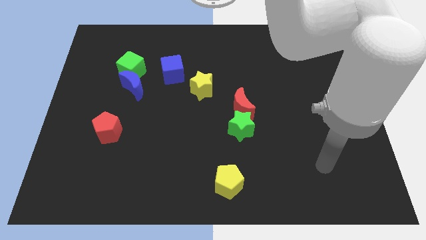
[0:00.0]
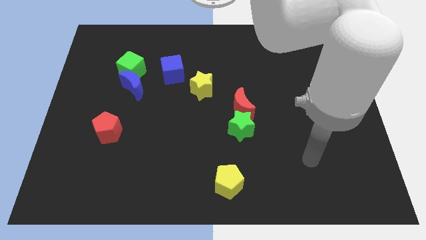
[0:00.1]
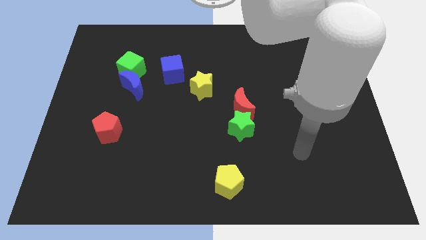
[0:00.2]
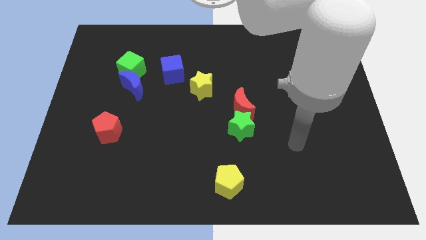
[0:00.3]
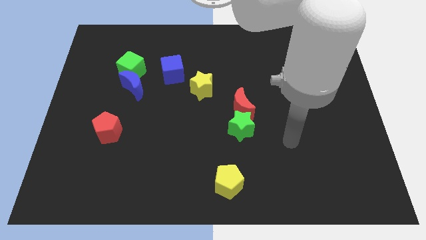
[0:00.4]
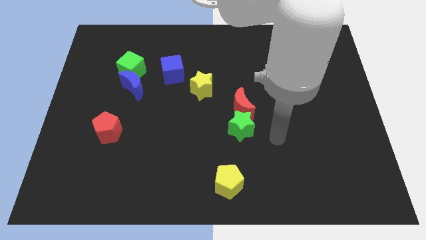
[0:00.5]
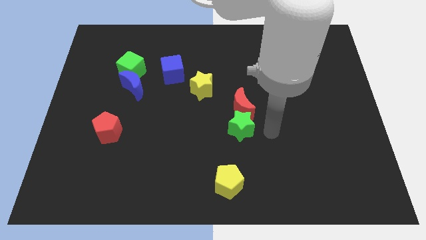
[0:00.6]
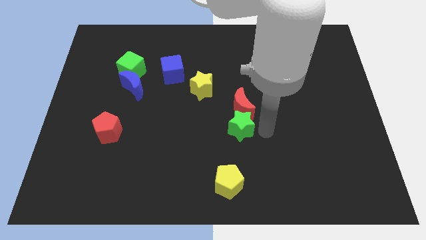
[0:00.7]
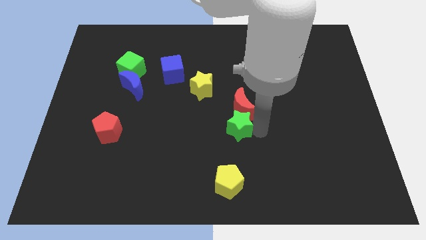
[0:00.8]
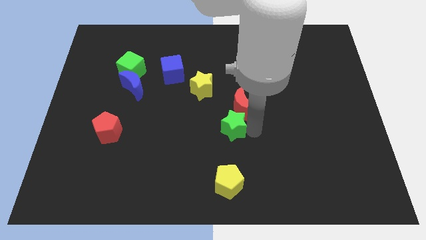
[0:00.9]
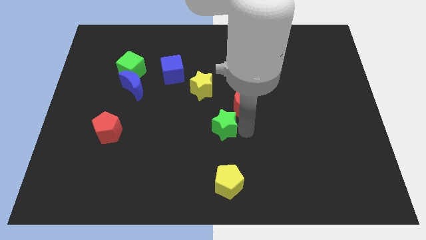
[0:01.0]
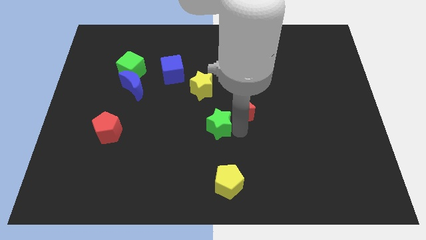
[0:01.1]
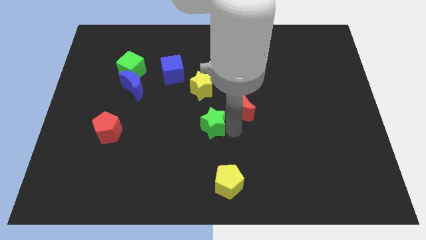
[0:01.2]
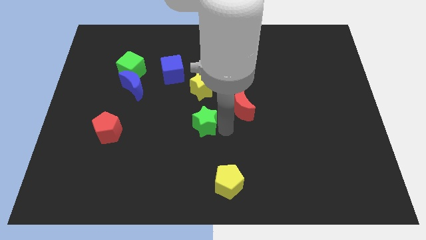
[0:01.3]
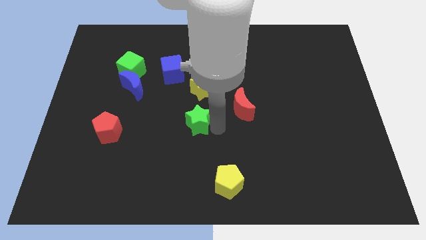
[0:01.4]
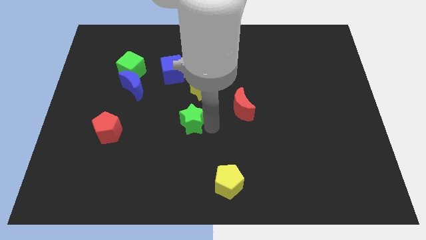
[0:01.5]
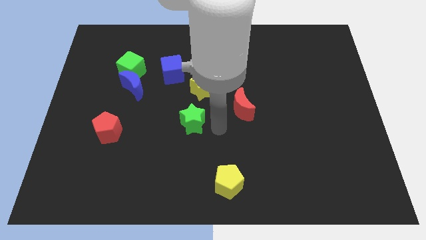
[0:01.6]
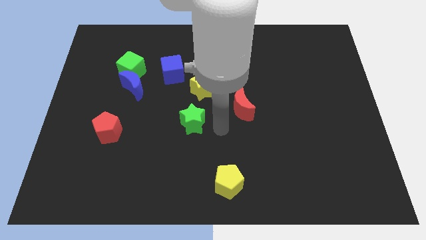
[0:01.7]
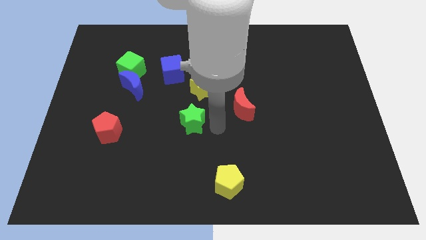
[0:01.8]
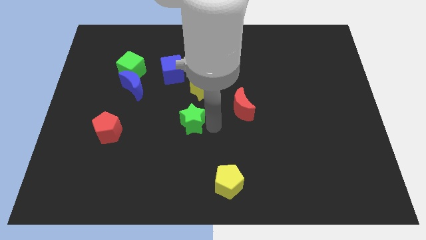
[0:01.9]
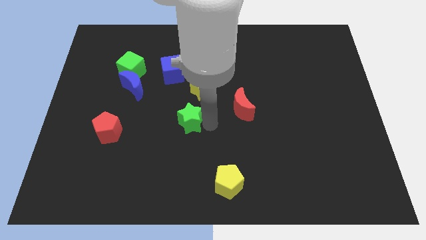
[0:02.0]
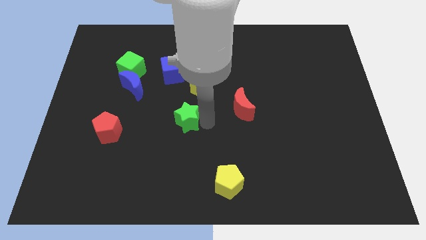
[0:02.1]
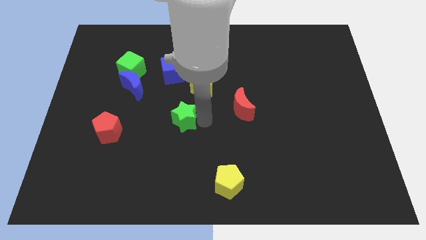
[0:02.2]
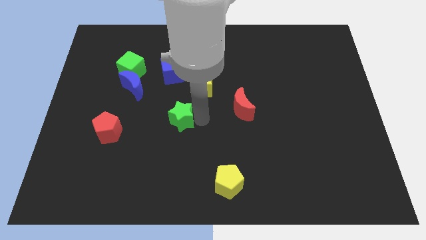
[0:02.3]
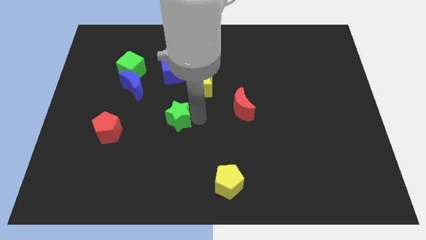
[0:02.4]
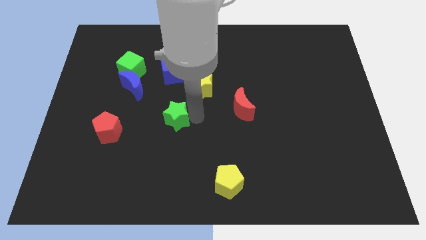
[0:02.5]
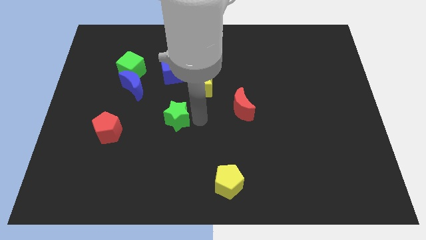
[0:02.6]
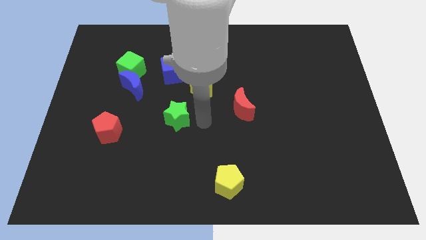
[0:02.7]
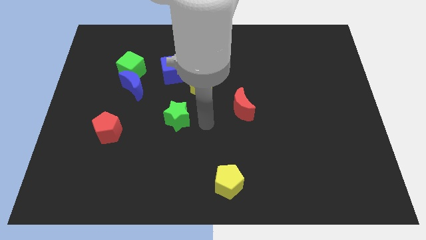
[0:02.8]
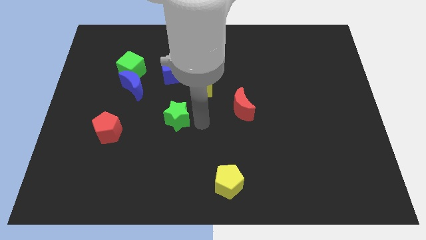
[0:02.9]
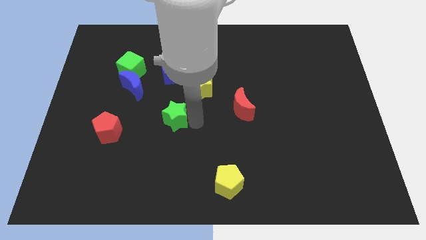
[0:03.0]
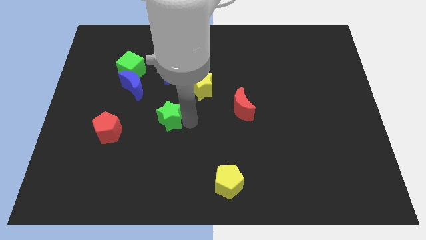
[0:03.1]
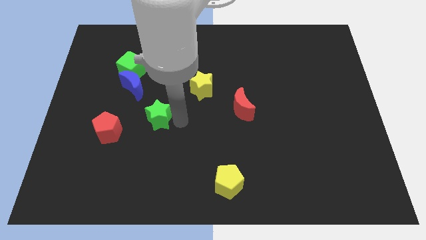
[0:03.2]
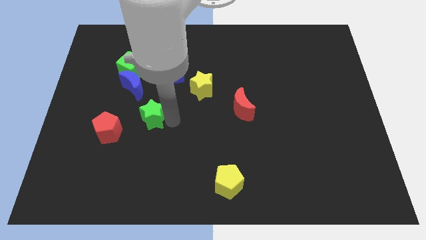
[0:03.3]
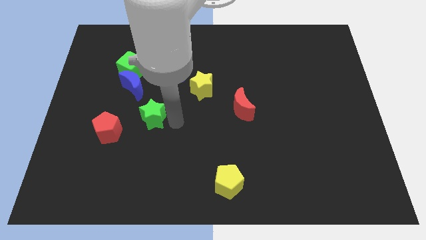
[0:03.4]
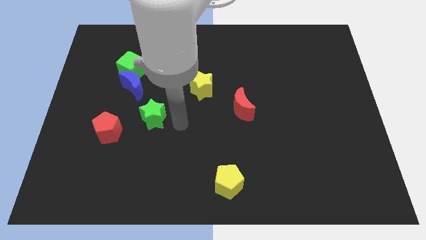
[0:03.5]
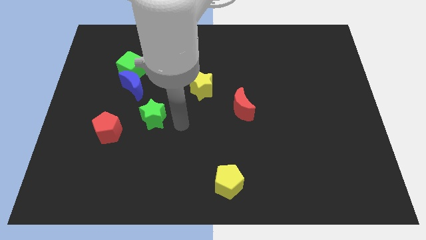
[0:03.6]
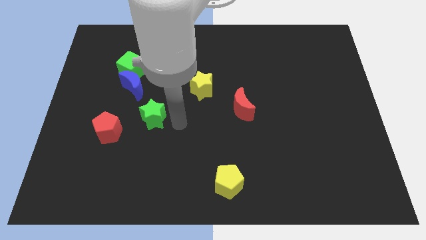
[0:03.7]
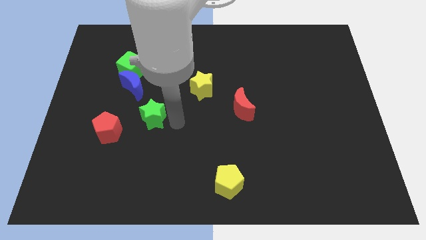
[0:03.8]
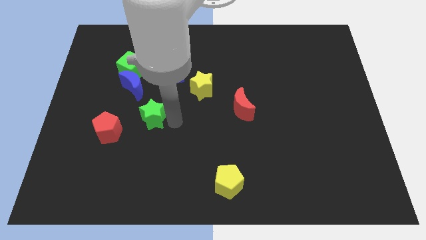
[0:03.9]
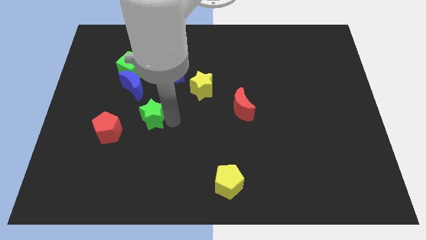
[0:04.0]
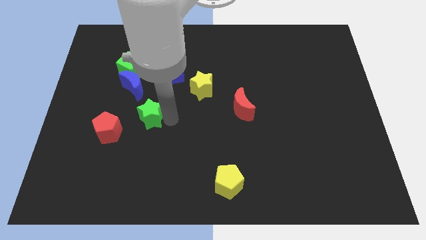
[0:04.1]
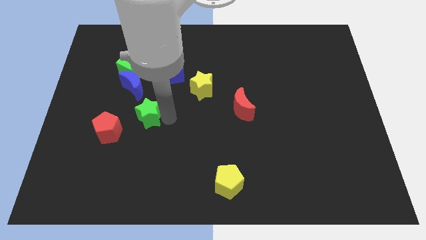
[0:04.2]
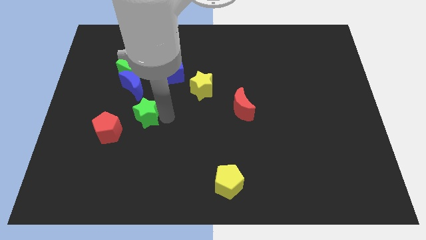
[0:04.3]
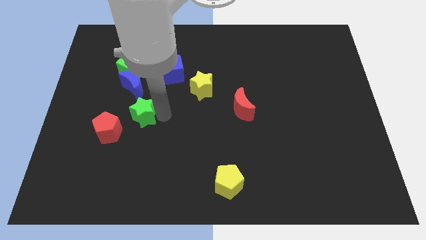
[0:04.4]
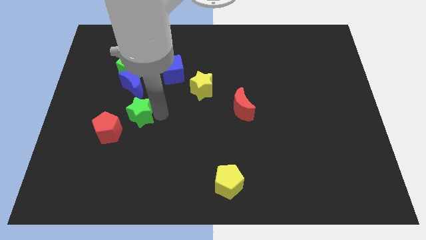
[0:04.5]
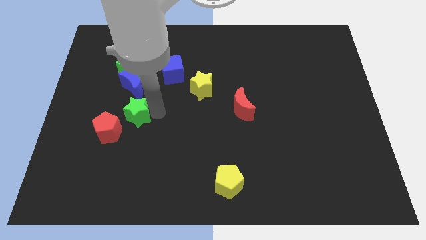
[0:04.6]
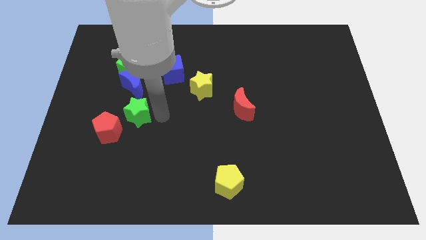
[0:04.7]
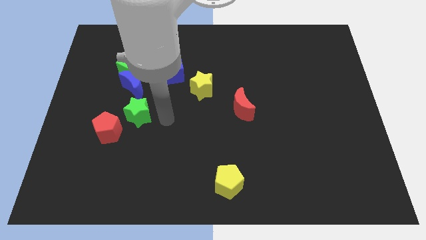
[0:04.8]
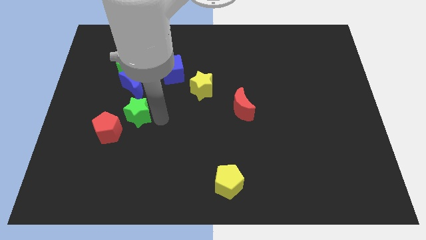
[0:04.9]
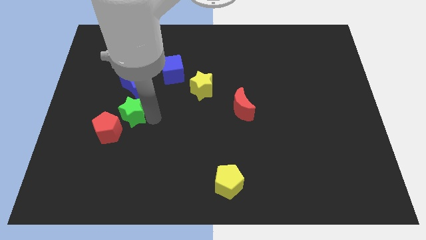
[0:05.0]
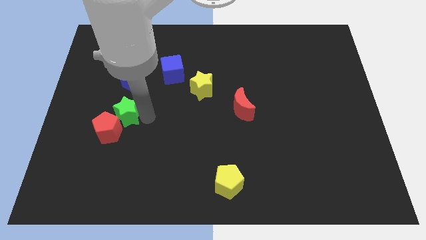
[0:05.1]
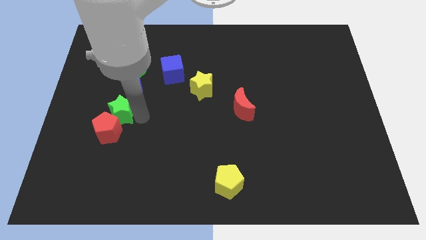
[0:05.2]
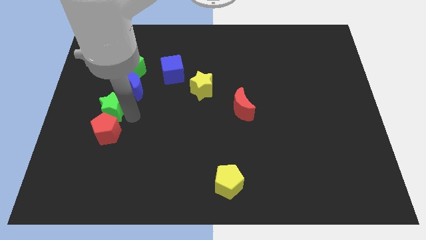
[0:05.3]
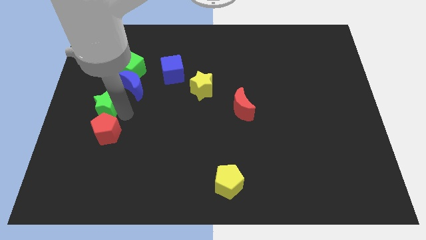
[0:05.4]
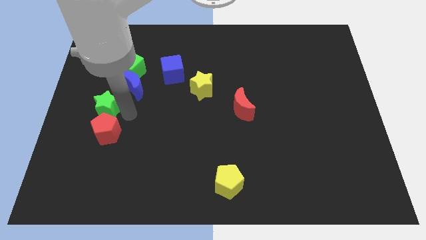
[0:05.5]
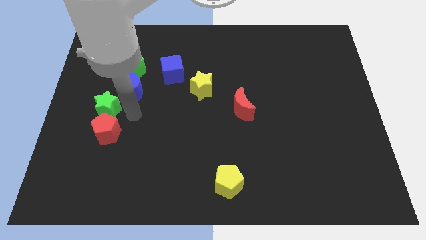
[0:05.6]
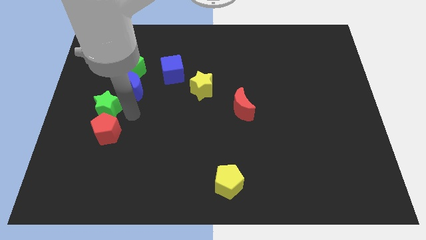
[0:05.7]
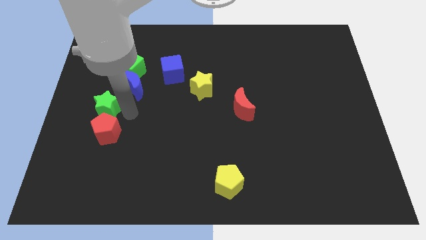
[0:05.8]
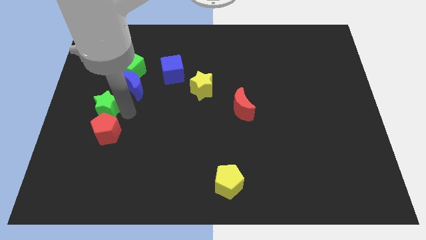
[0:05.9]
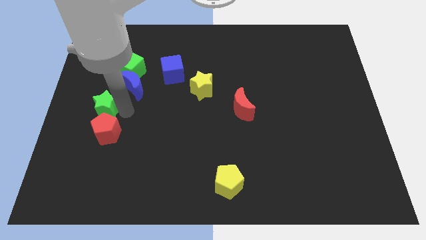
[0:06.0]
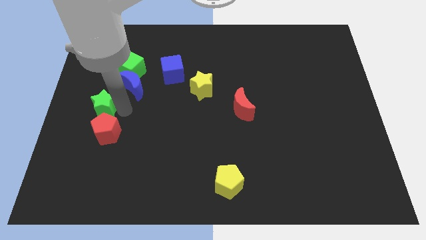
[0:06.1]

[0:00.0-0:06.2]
put the green star to the left side
